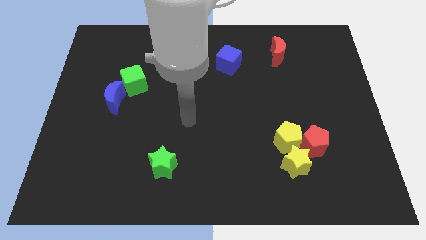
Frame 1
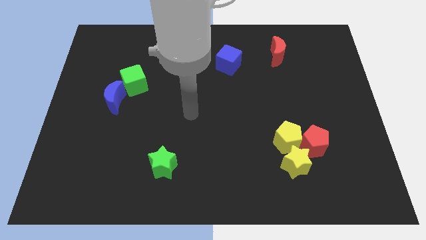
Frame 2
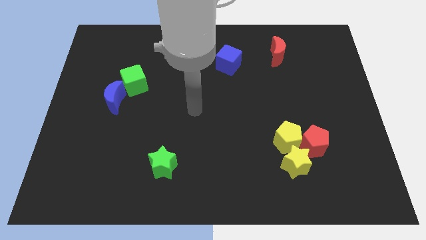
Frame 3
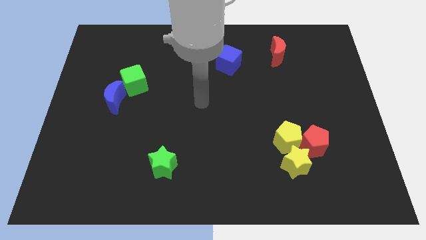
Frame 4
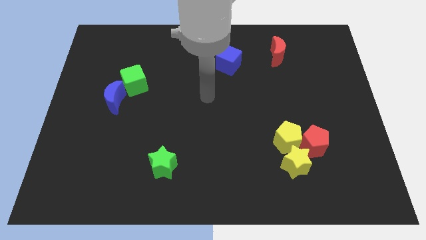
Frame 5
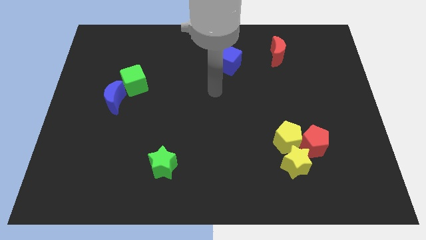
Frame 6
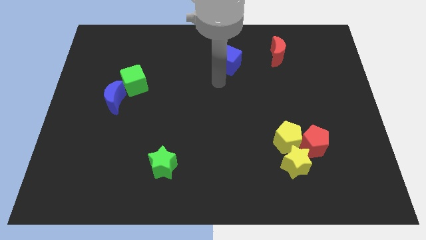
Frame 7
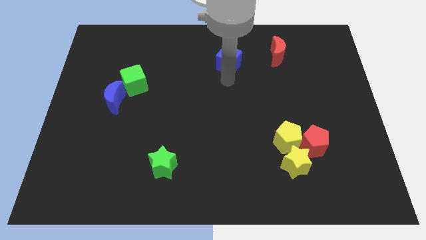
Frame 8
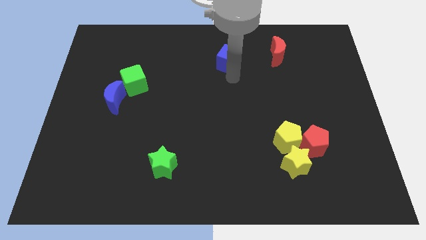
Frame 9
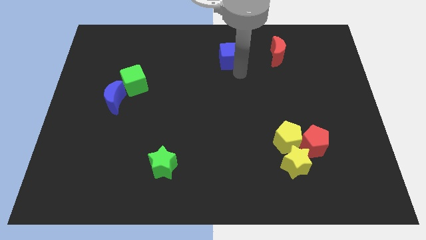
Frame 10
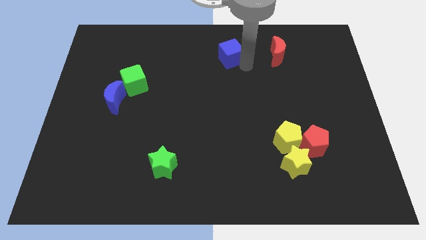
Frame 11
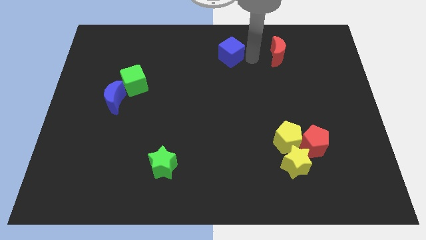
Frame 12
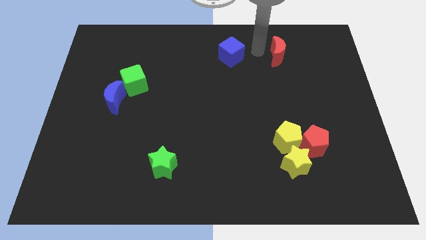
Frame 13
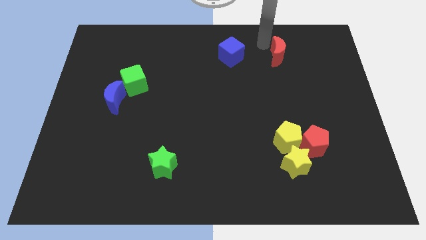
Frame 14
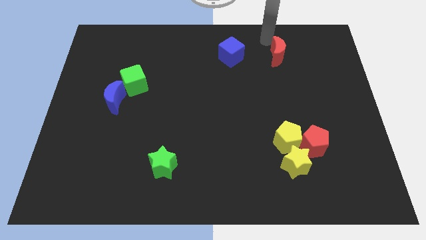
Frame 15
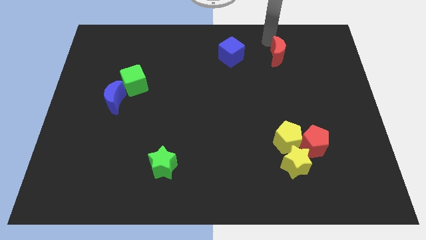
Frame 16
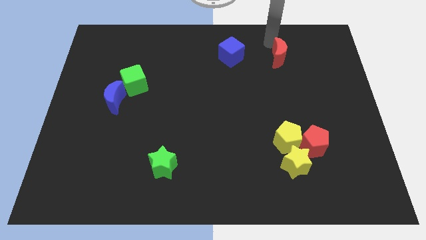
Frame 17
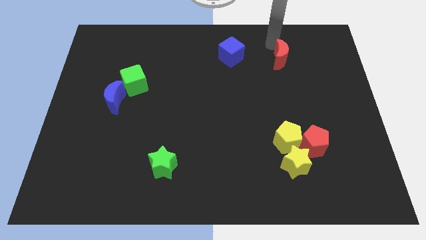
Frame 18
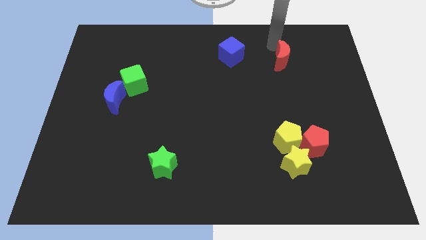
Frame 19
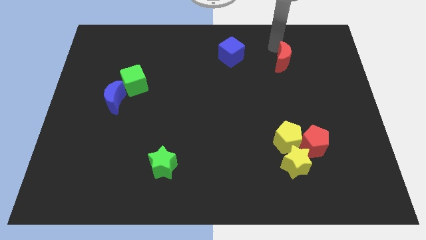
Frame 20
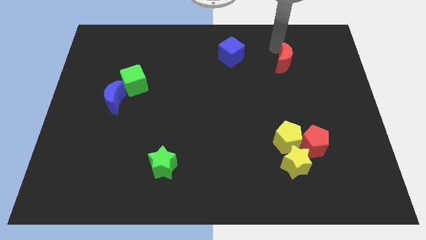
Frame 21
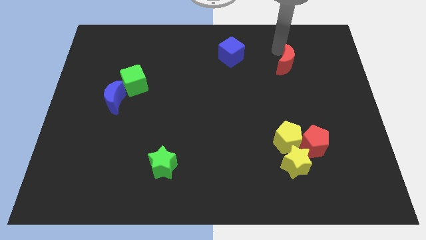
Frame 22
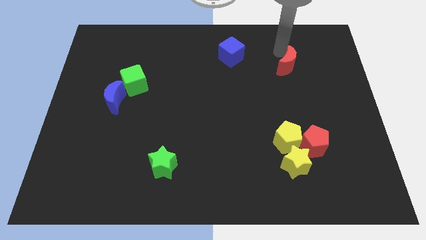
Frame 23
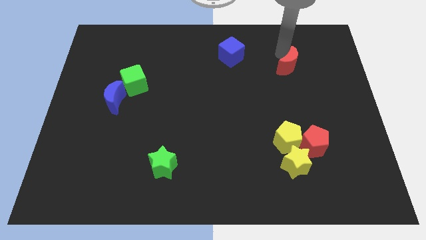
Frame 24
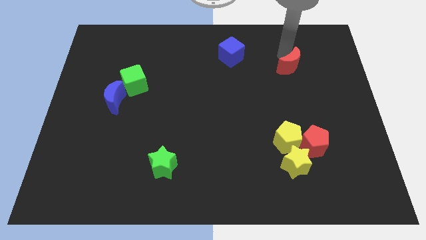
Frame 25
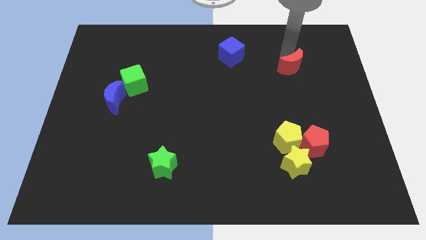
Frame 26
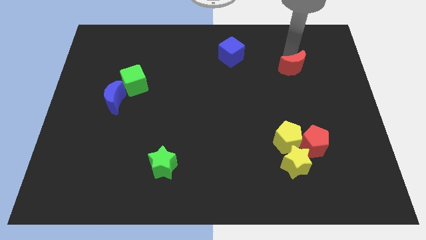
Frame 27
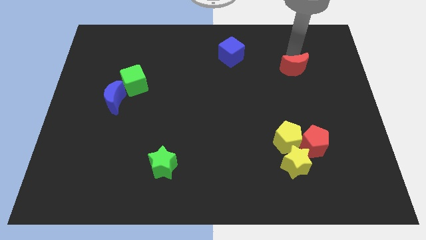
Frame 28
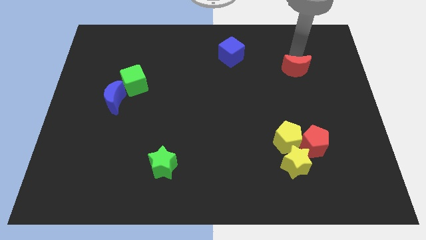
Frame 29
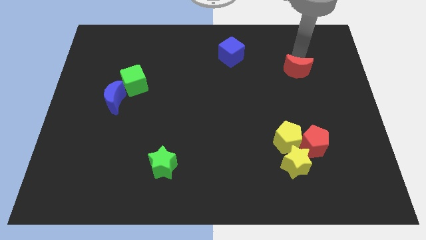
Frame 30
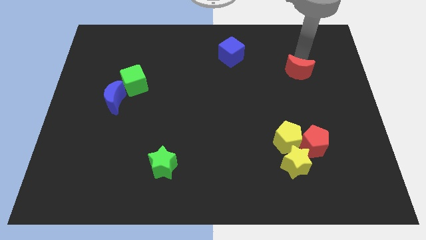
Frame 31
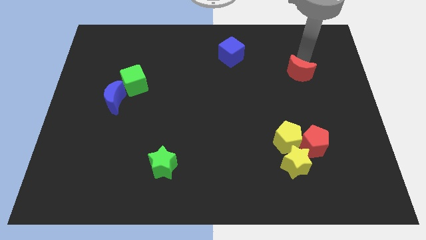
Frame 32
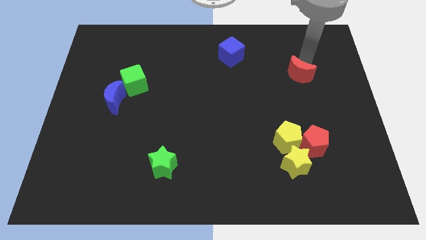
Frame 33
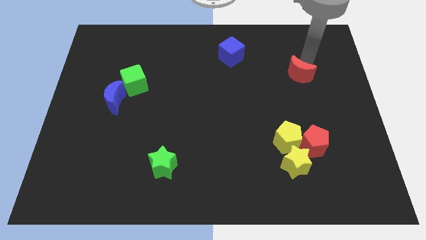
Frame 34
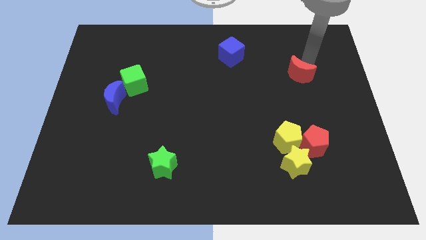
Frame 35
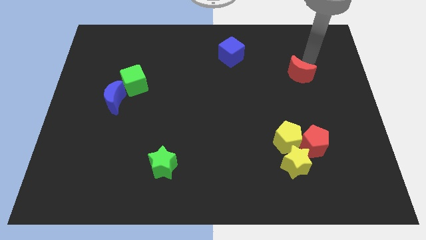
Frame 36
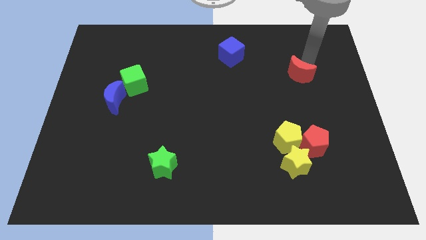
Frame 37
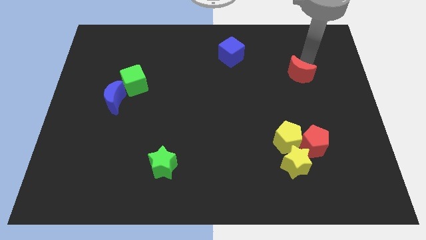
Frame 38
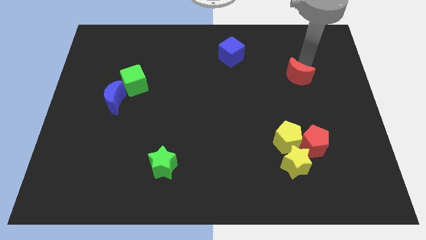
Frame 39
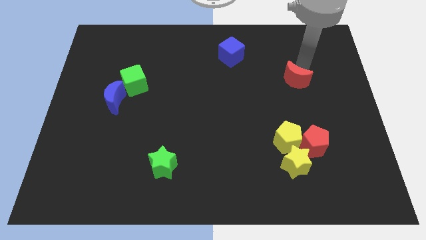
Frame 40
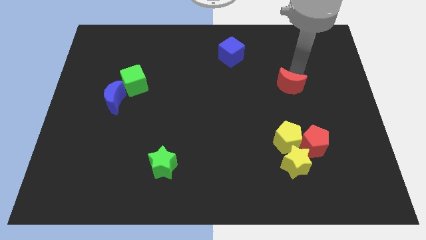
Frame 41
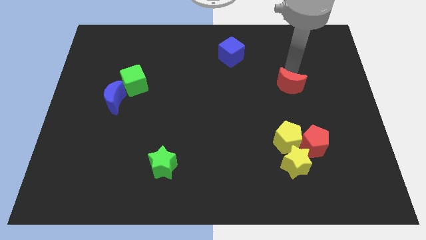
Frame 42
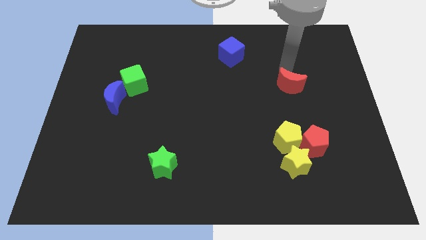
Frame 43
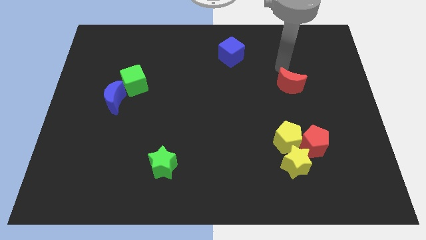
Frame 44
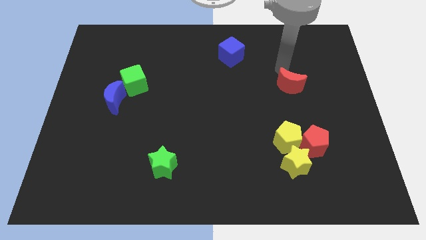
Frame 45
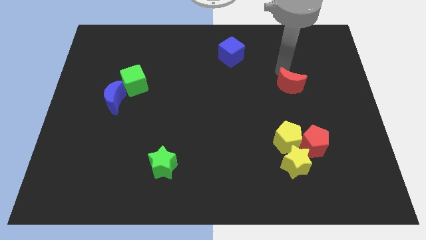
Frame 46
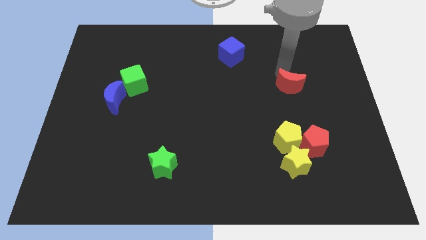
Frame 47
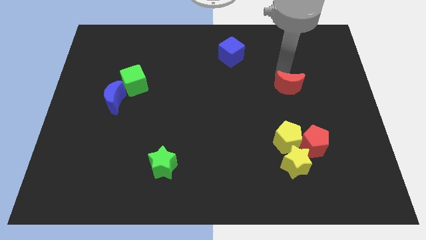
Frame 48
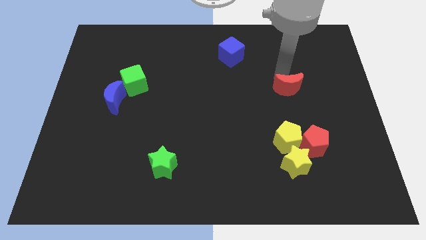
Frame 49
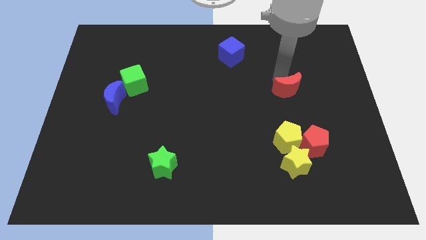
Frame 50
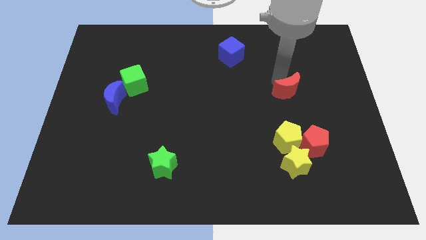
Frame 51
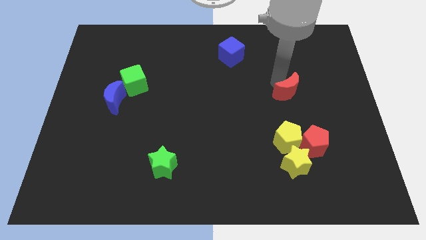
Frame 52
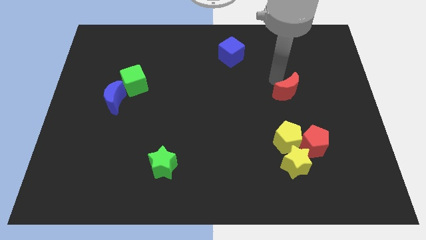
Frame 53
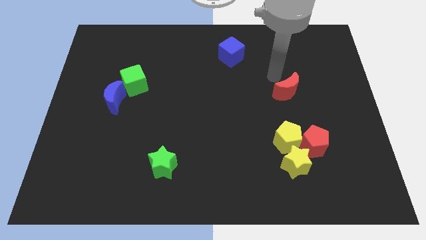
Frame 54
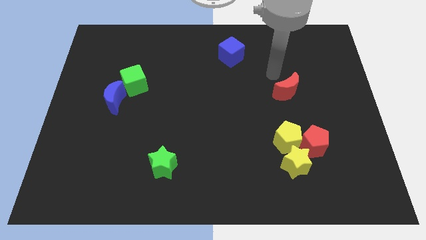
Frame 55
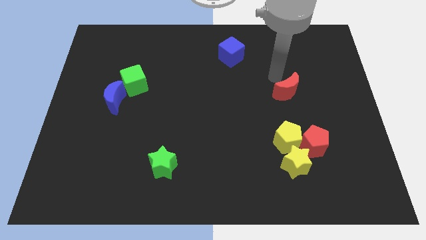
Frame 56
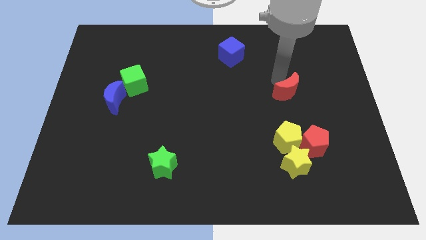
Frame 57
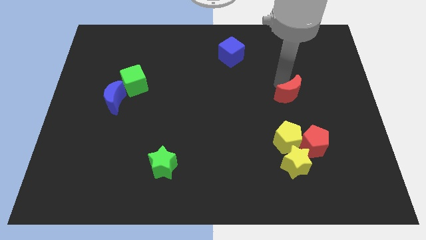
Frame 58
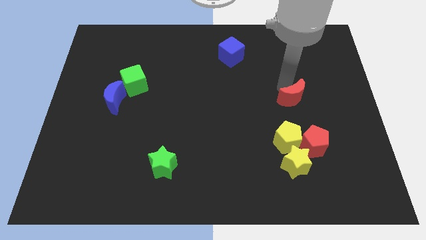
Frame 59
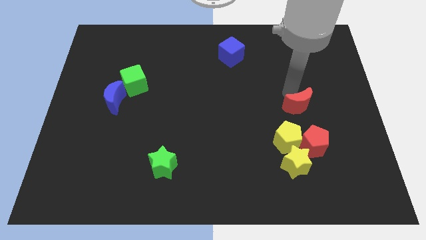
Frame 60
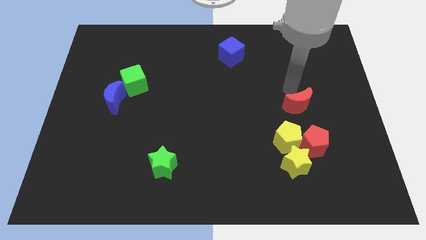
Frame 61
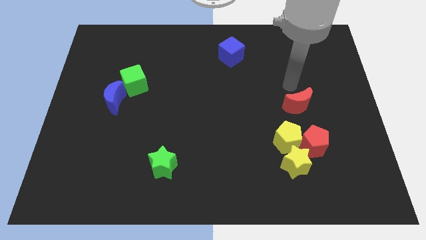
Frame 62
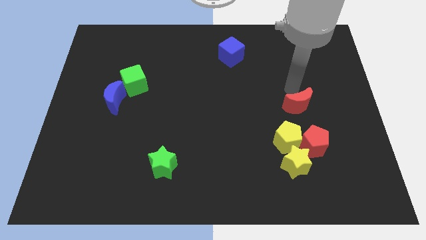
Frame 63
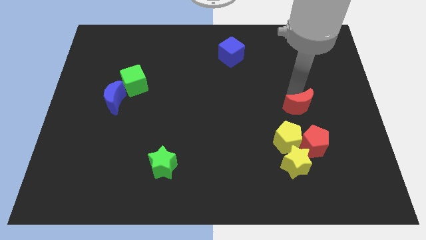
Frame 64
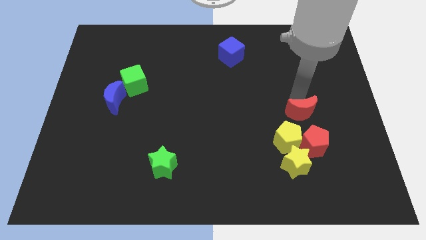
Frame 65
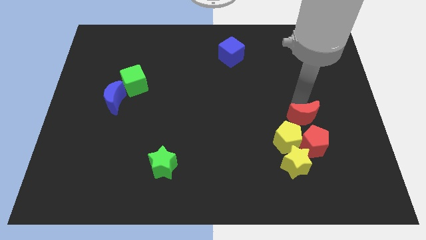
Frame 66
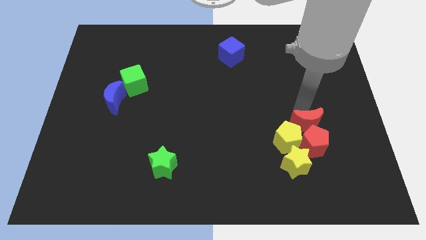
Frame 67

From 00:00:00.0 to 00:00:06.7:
slide the red moon to the red pentagon
